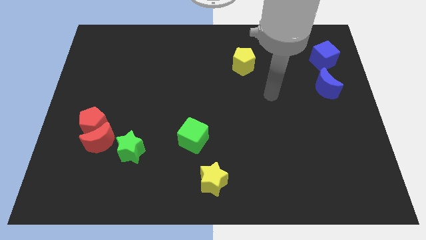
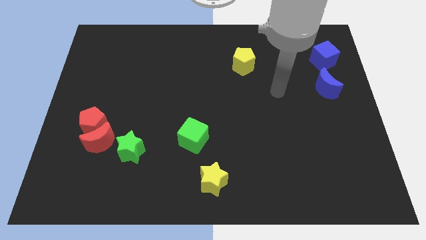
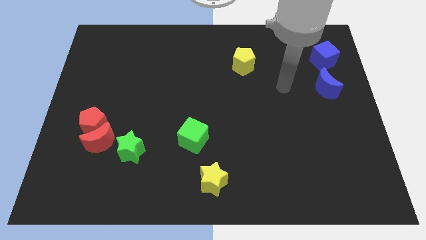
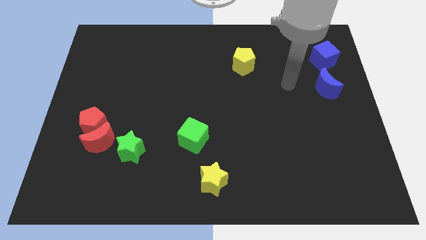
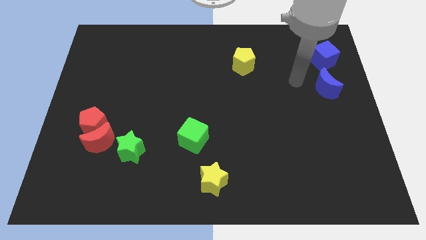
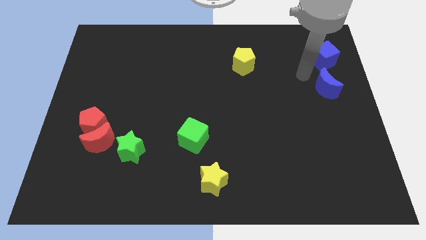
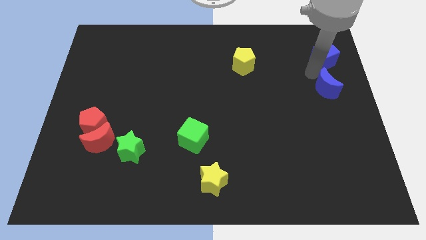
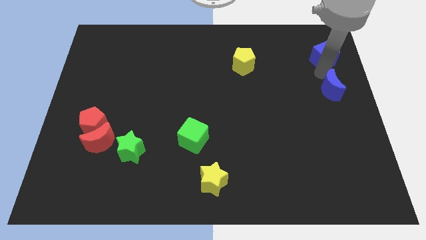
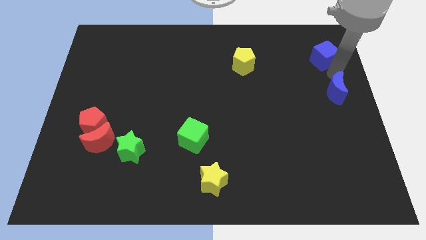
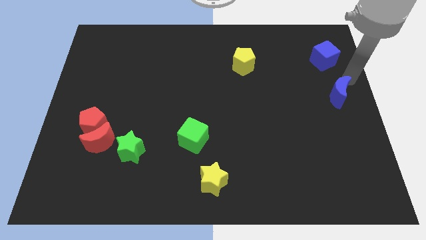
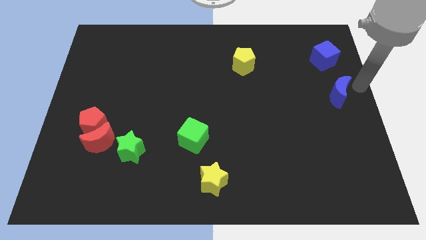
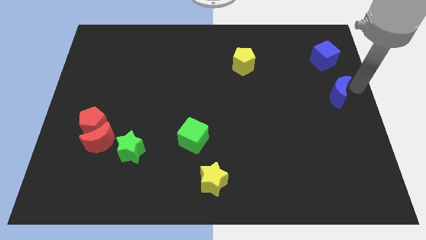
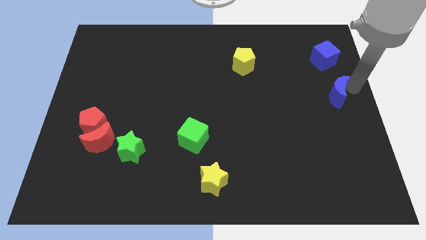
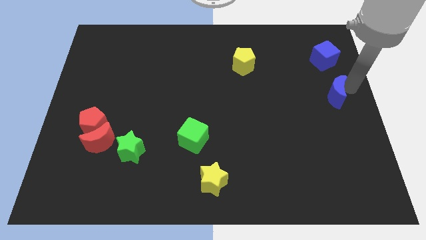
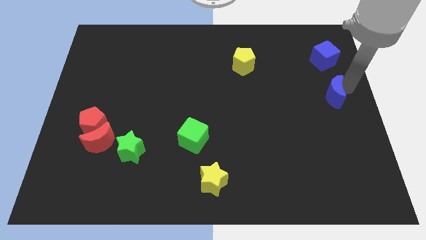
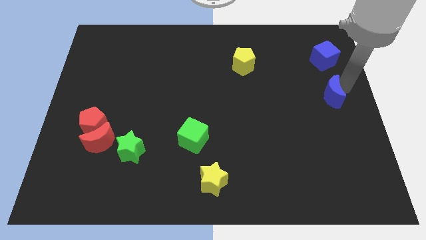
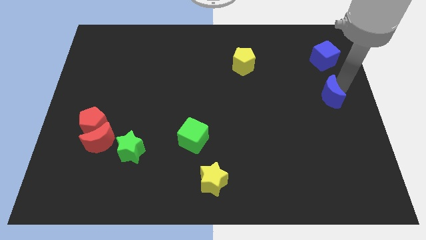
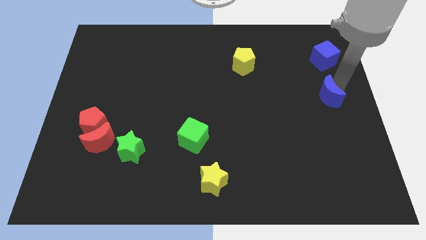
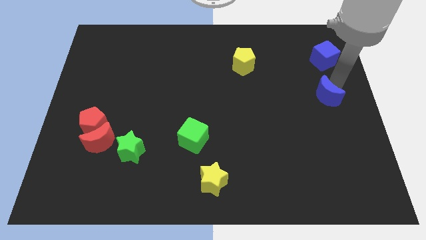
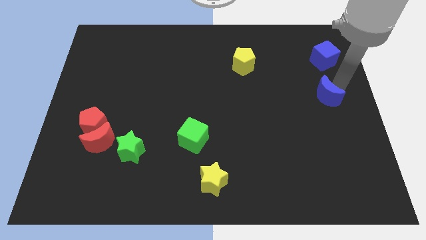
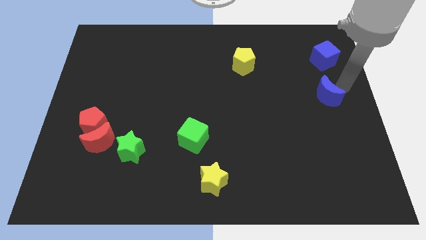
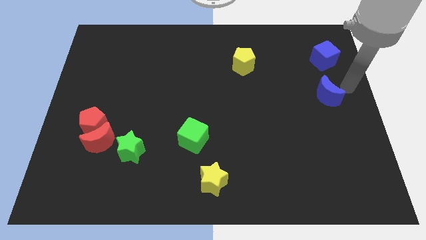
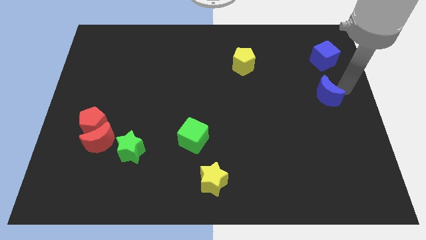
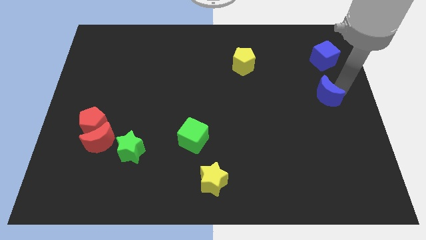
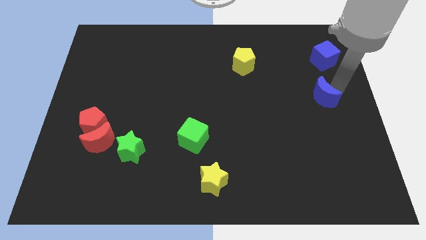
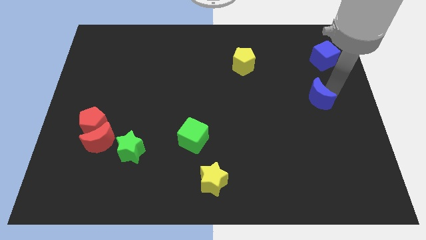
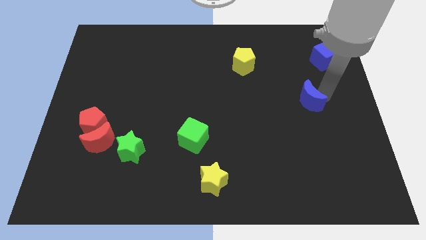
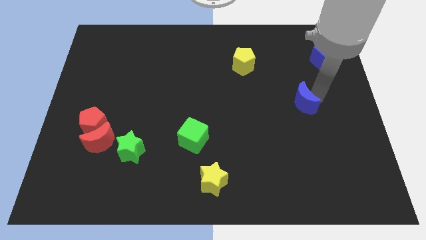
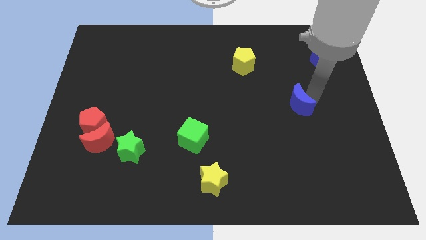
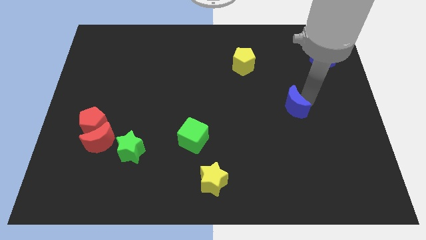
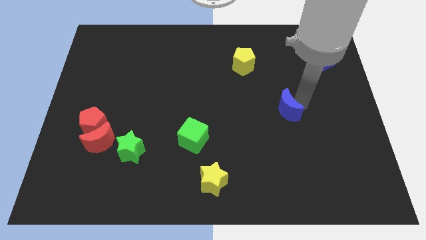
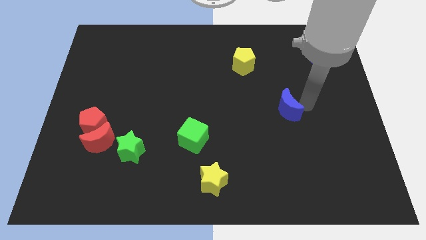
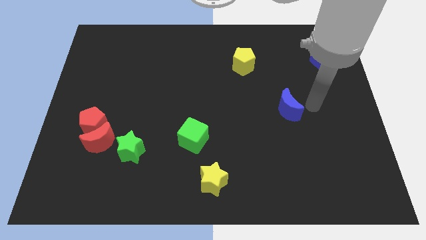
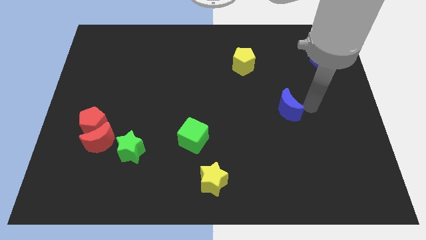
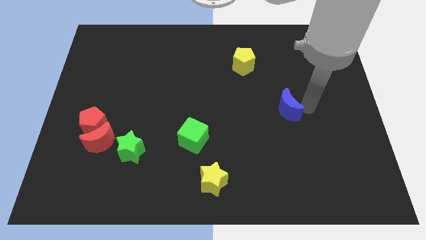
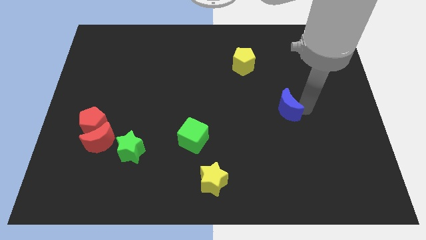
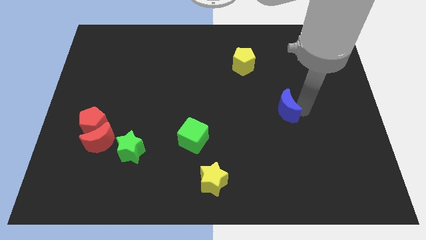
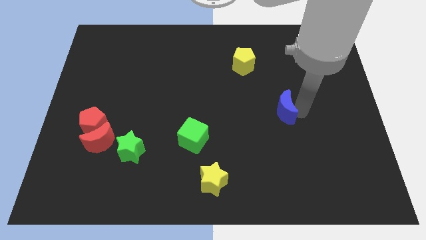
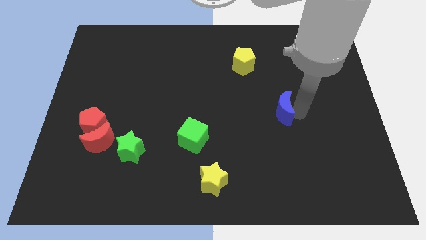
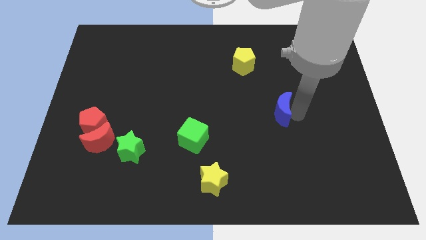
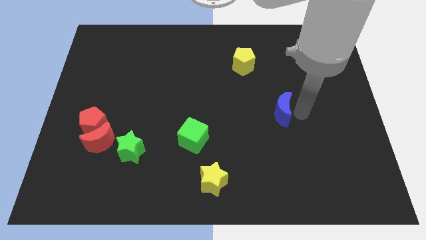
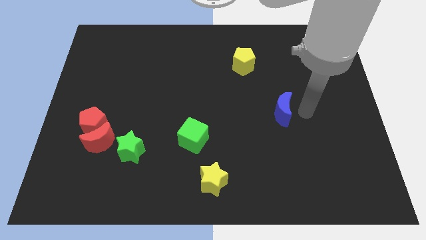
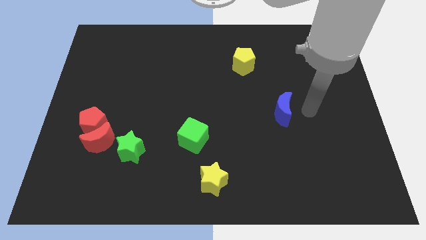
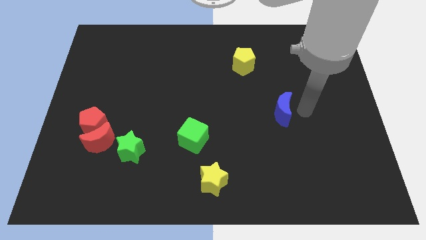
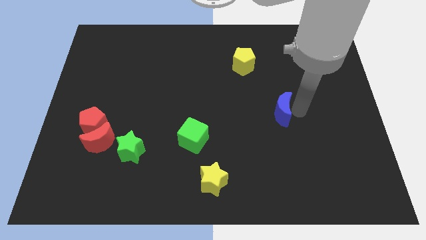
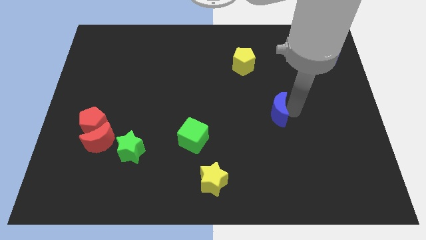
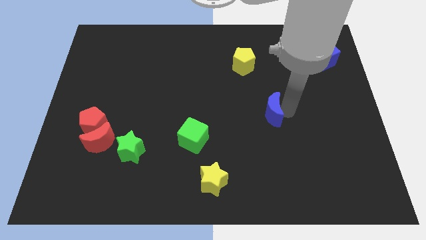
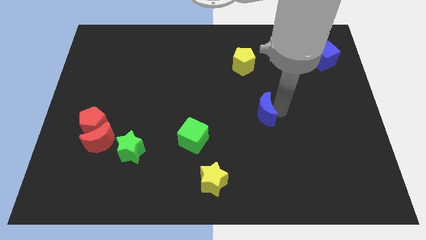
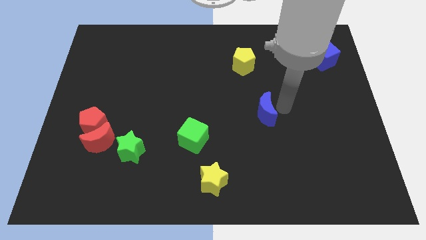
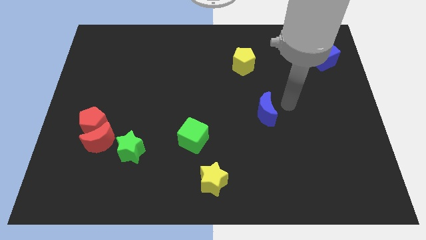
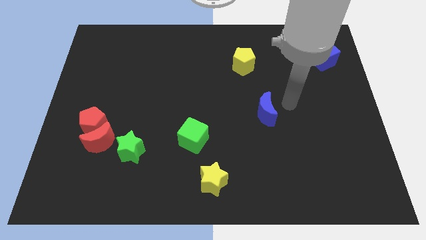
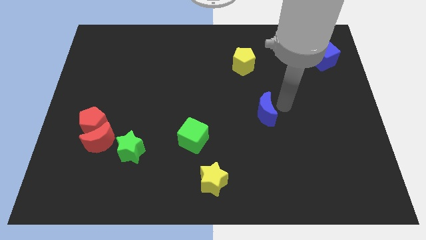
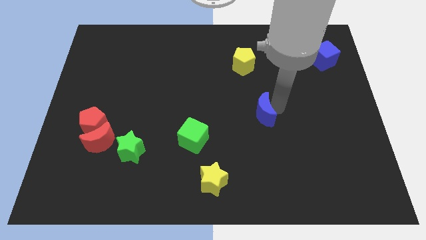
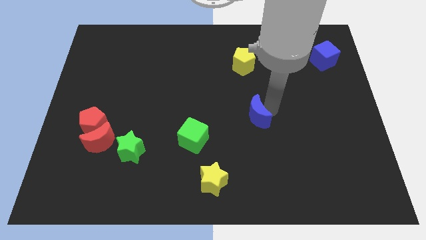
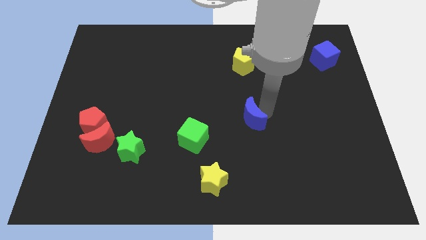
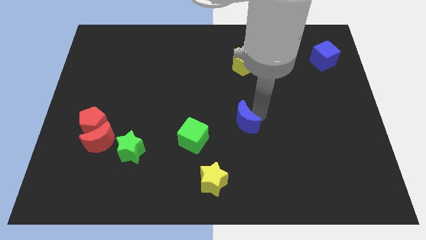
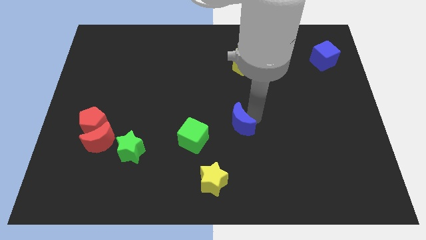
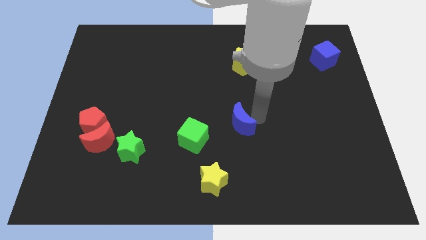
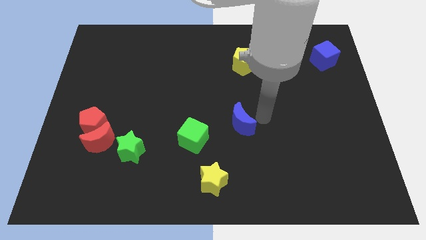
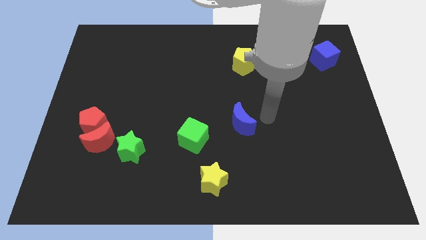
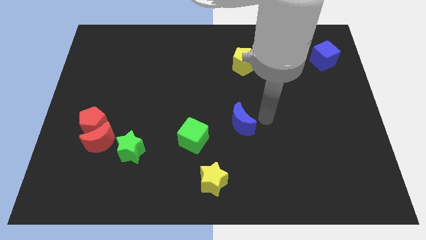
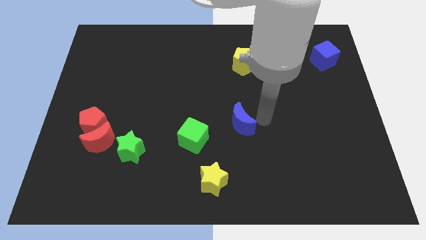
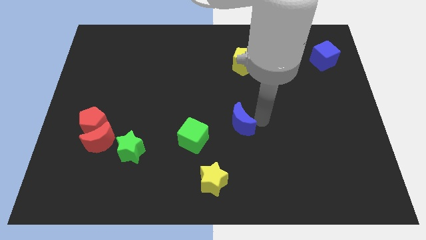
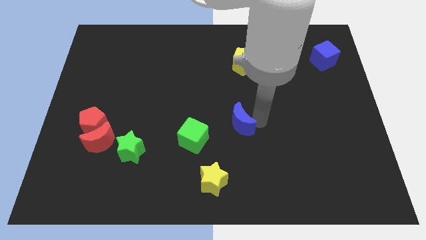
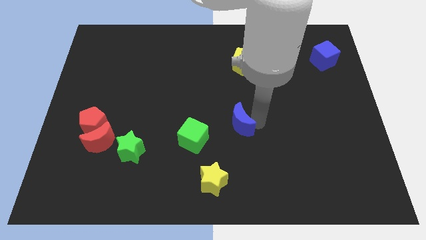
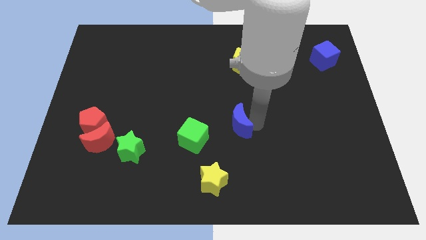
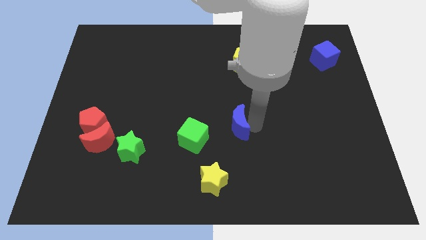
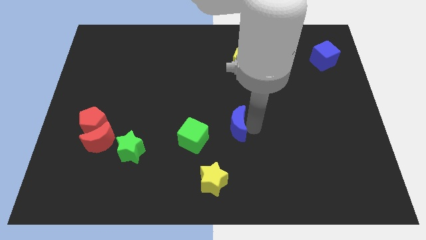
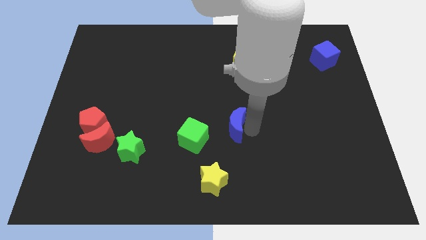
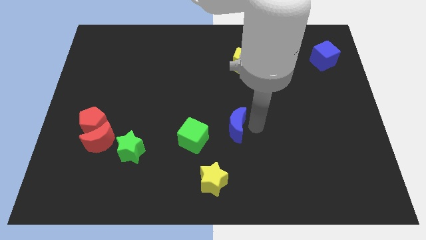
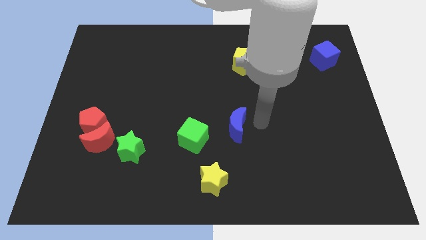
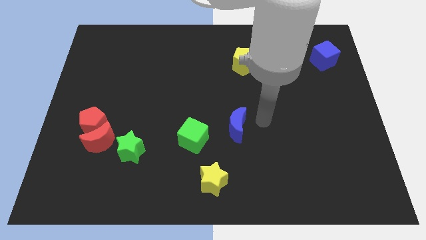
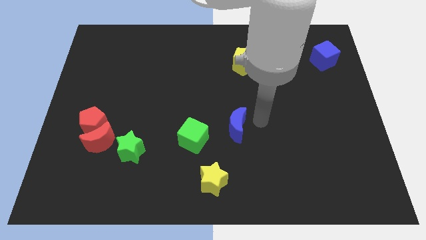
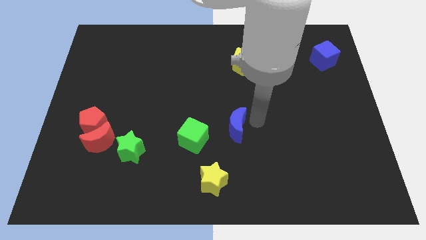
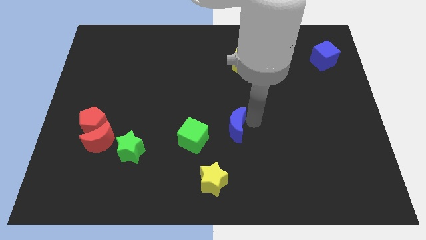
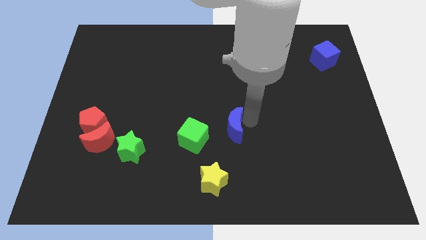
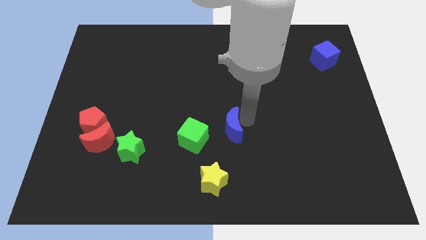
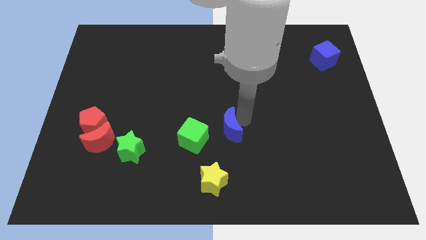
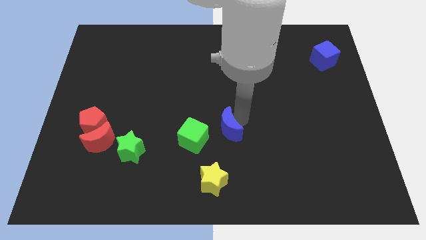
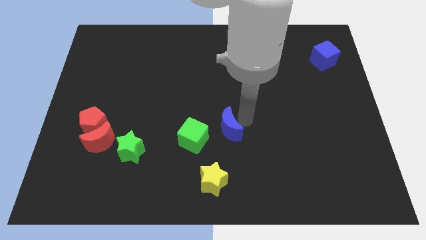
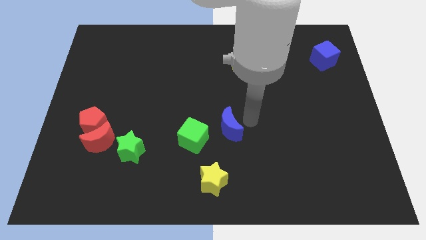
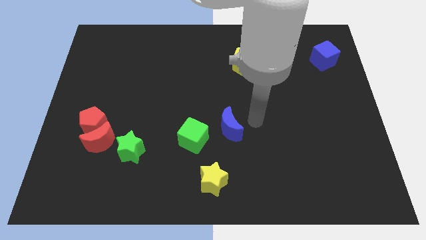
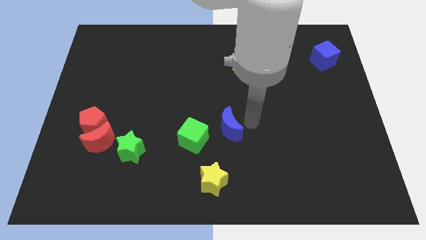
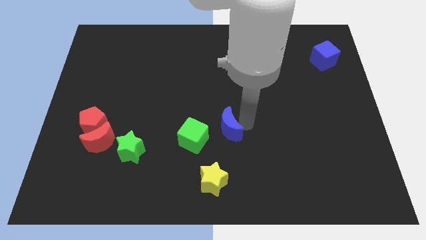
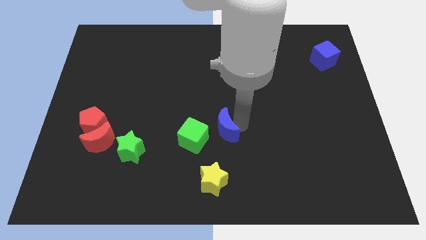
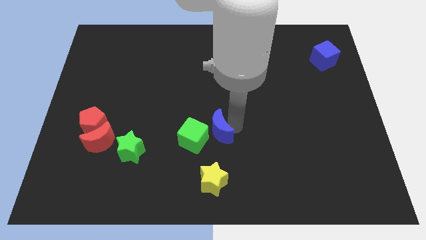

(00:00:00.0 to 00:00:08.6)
slide the blue moon next to the green cube
